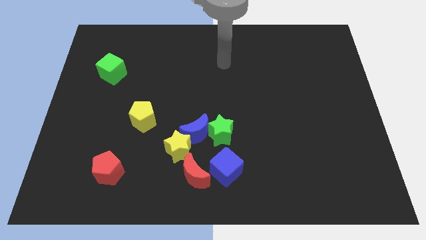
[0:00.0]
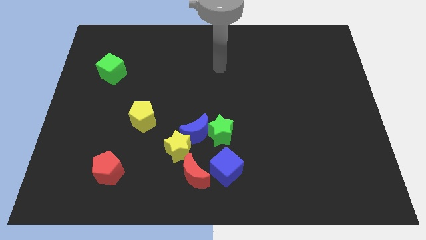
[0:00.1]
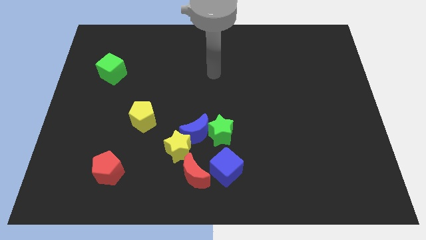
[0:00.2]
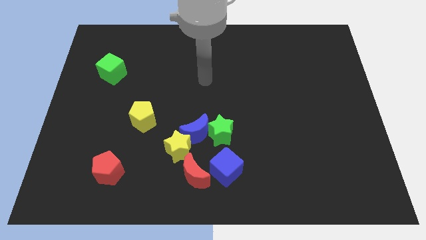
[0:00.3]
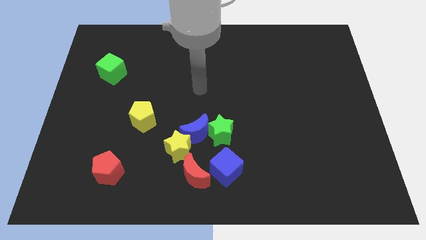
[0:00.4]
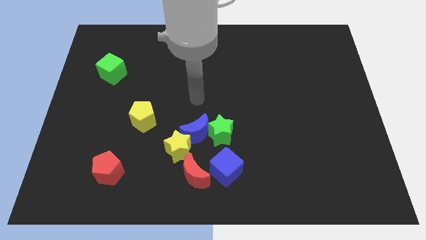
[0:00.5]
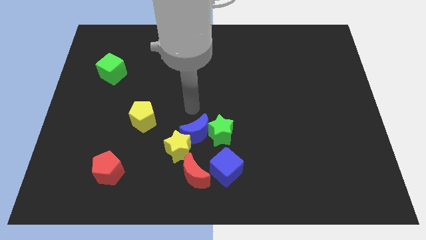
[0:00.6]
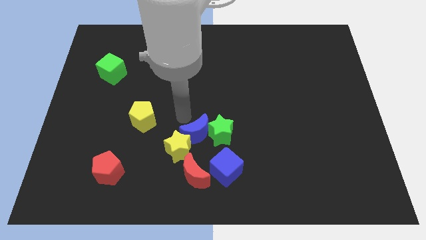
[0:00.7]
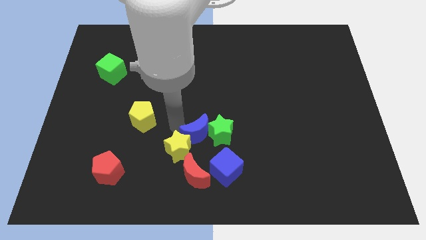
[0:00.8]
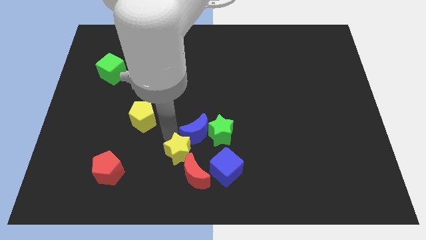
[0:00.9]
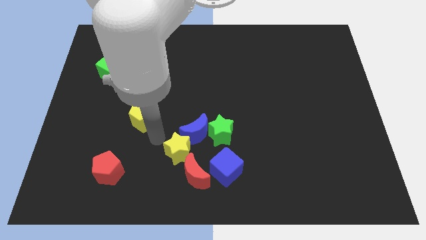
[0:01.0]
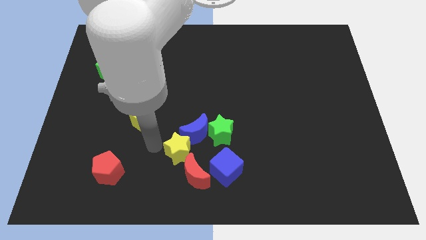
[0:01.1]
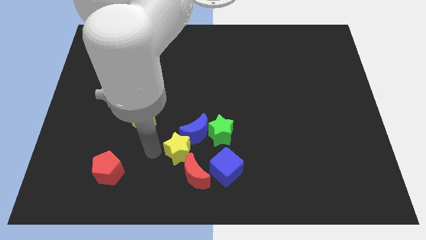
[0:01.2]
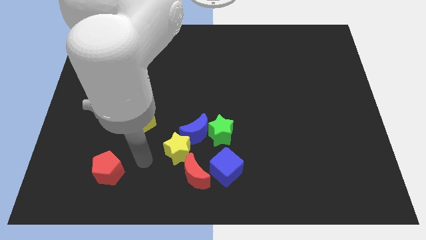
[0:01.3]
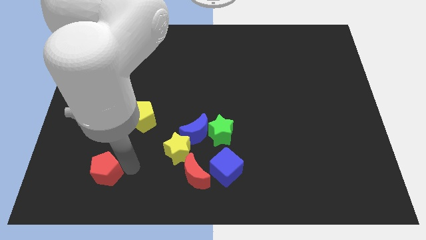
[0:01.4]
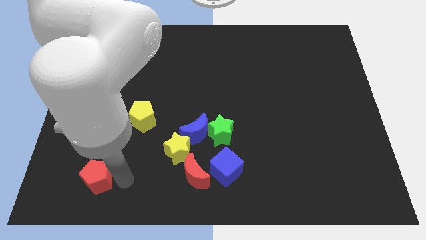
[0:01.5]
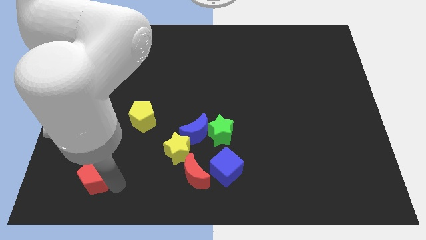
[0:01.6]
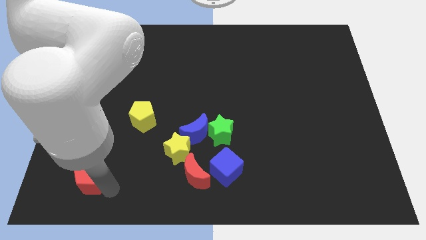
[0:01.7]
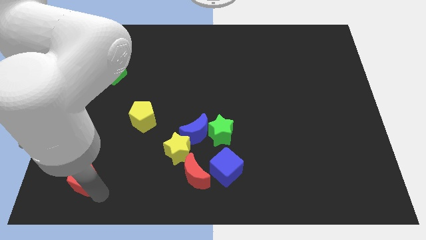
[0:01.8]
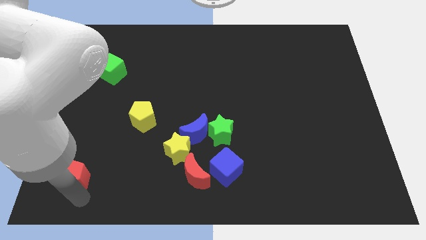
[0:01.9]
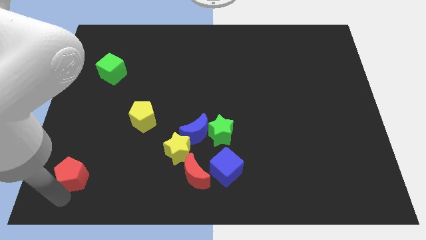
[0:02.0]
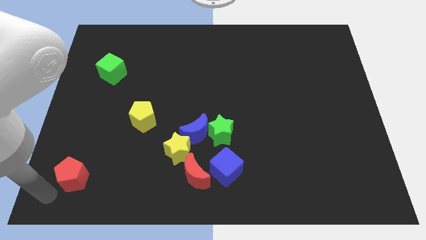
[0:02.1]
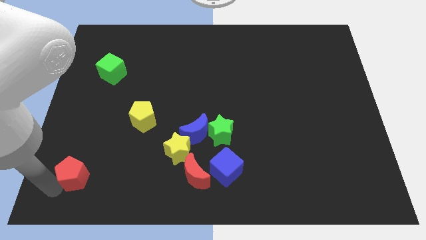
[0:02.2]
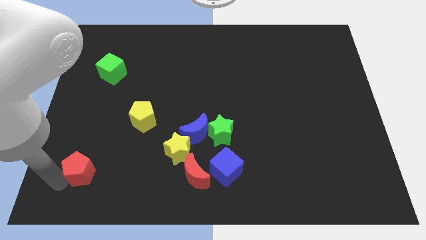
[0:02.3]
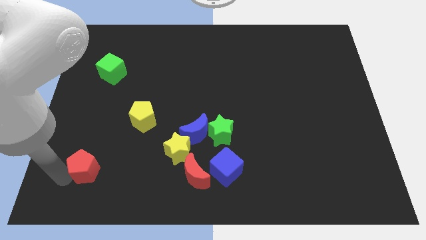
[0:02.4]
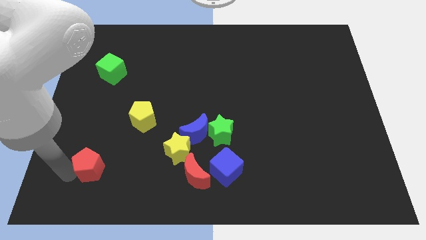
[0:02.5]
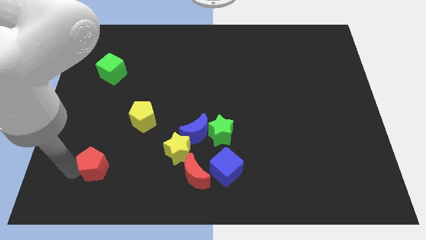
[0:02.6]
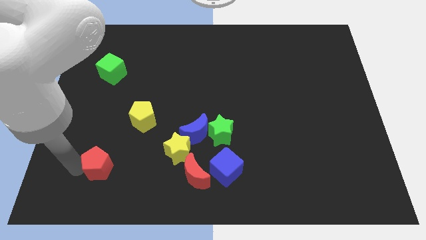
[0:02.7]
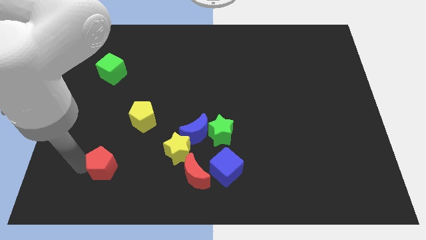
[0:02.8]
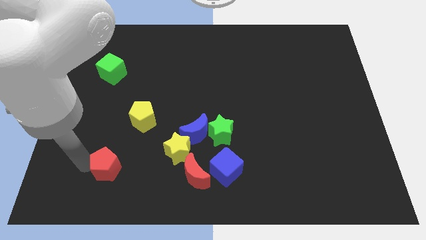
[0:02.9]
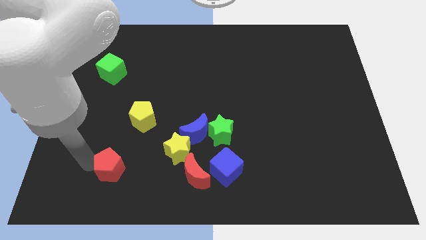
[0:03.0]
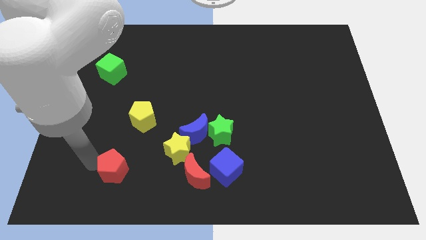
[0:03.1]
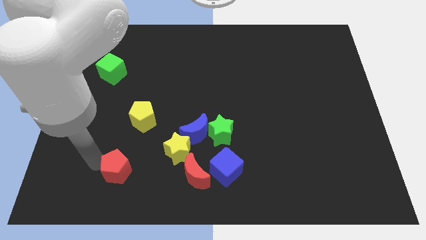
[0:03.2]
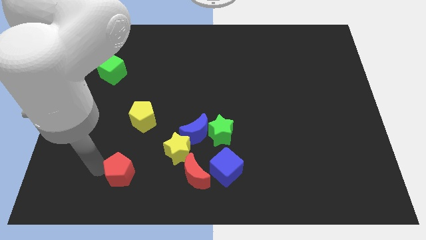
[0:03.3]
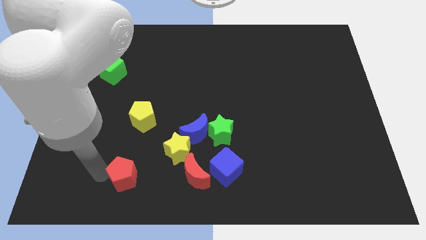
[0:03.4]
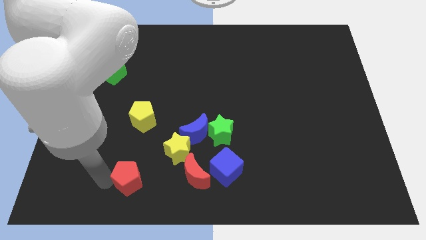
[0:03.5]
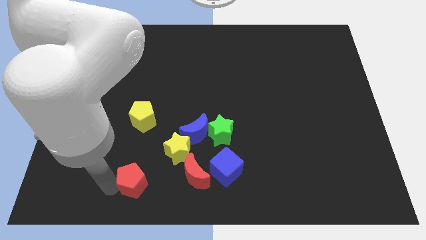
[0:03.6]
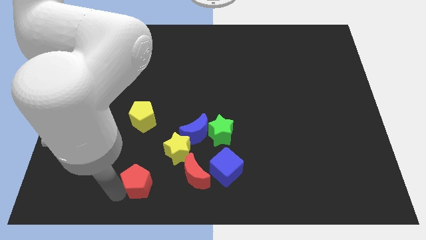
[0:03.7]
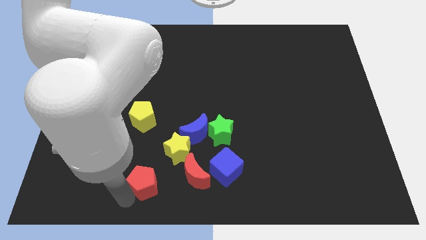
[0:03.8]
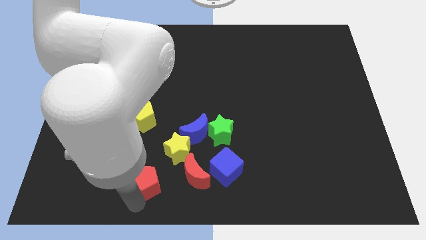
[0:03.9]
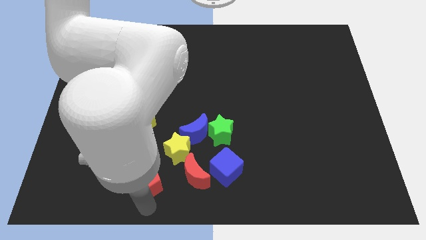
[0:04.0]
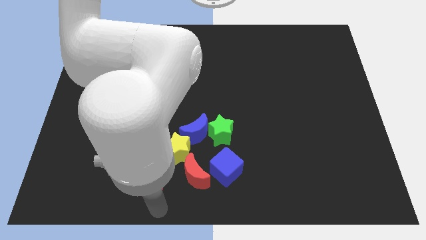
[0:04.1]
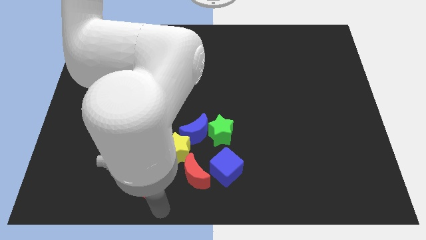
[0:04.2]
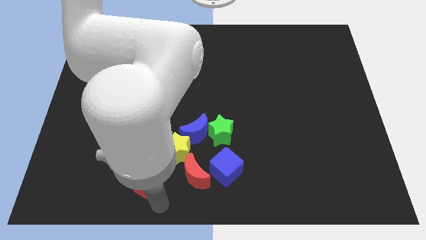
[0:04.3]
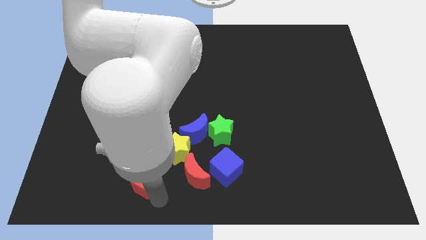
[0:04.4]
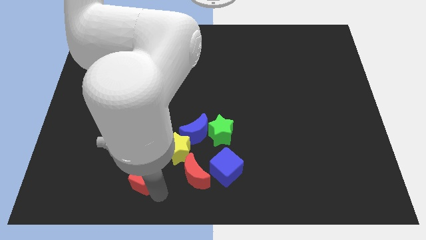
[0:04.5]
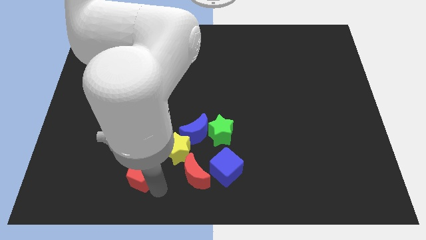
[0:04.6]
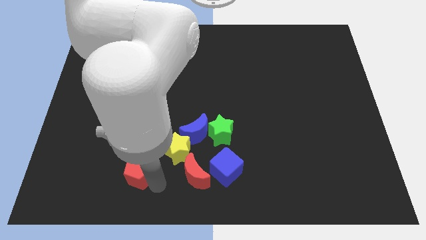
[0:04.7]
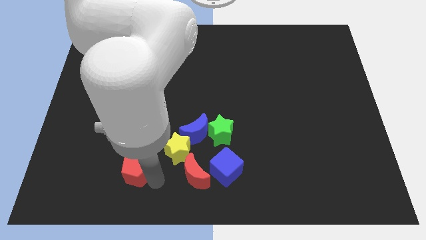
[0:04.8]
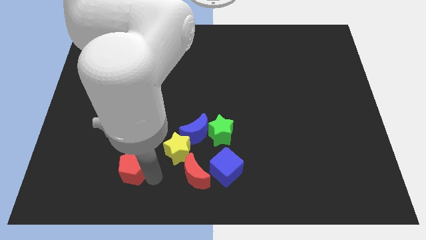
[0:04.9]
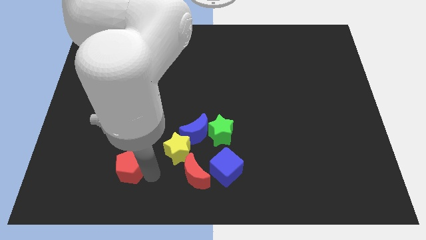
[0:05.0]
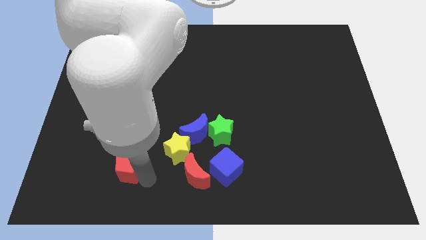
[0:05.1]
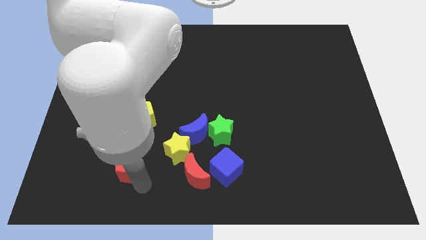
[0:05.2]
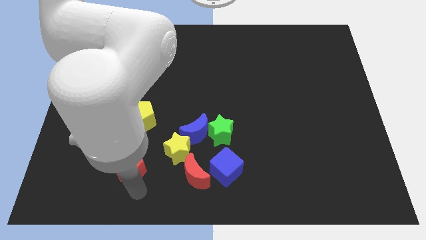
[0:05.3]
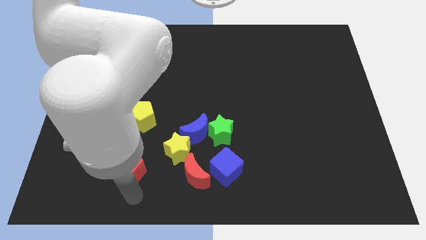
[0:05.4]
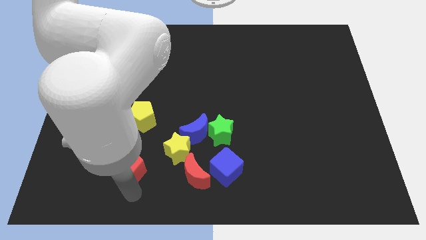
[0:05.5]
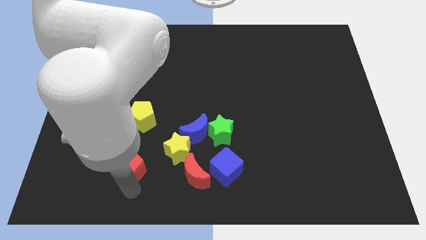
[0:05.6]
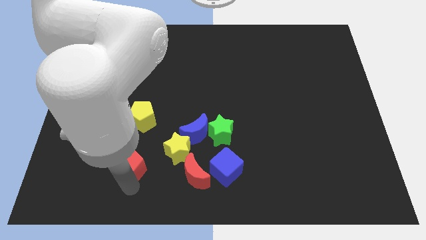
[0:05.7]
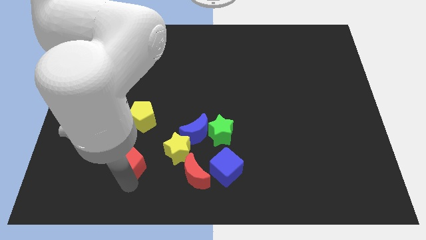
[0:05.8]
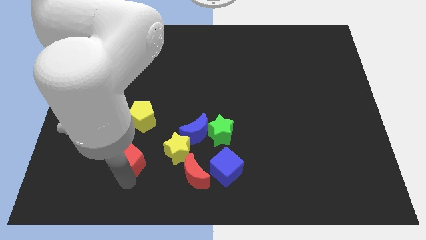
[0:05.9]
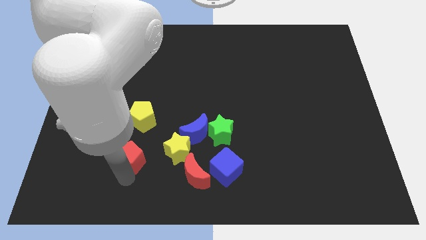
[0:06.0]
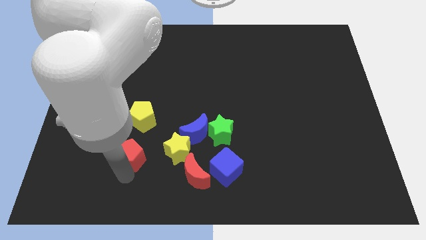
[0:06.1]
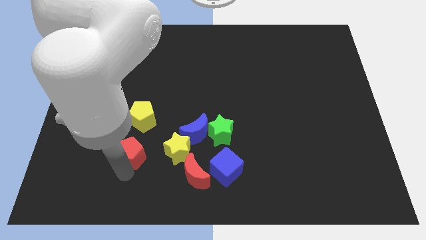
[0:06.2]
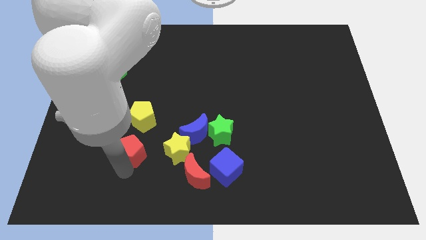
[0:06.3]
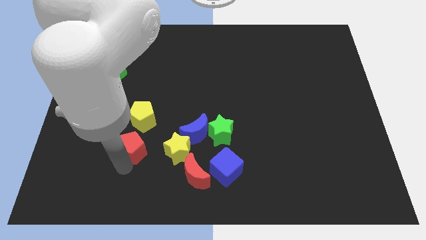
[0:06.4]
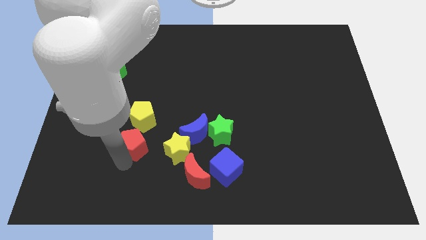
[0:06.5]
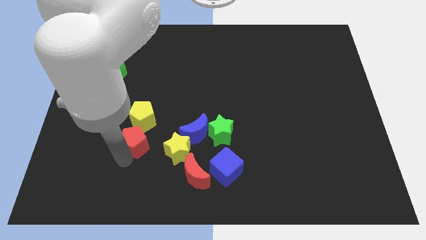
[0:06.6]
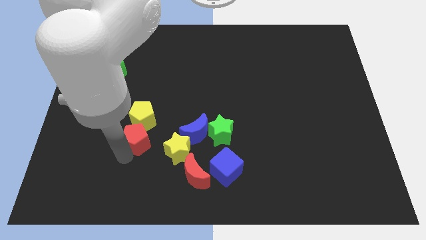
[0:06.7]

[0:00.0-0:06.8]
slide the red pentagon close to the yellow pentagon

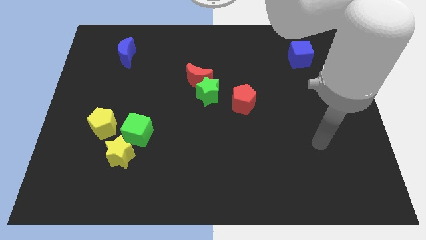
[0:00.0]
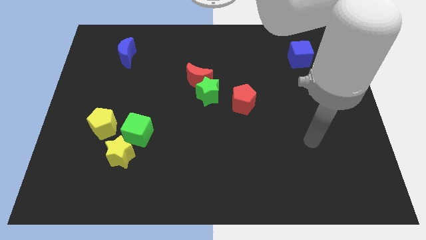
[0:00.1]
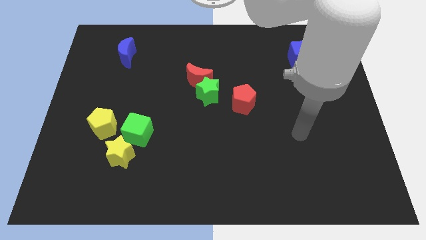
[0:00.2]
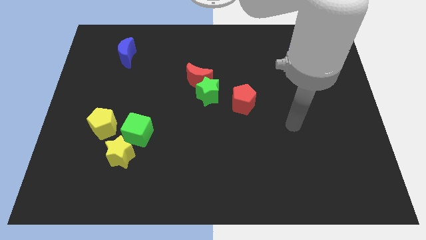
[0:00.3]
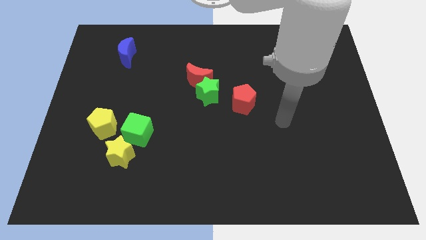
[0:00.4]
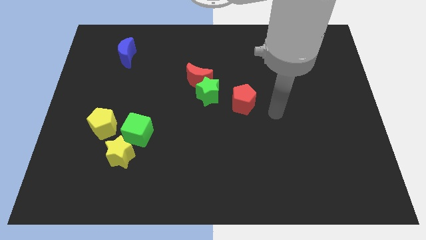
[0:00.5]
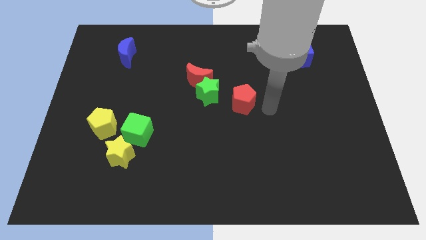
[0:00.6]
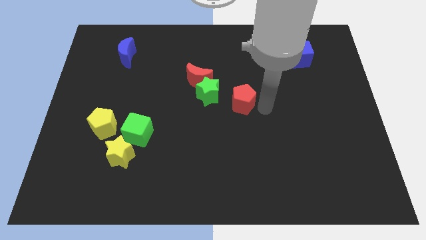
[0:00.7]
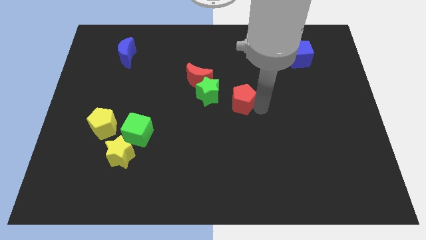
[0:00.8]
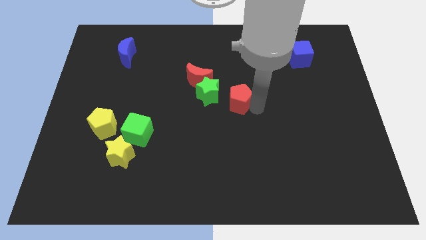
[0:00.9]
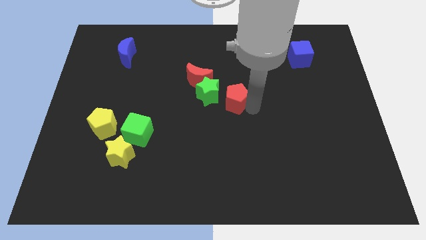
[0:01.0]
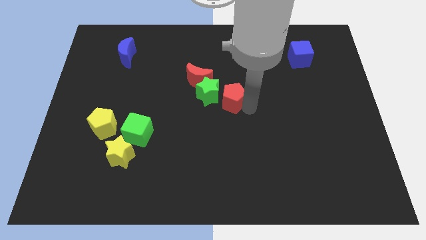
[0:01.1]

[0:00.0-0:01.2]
push the red pentagon towards the green star
